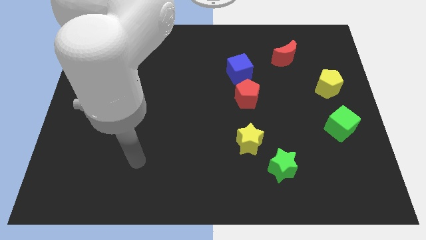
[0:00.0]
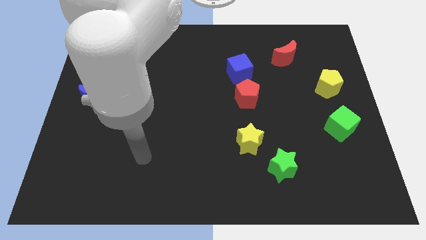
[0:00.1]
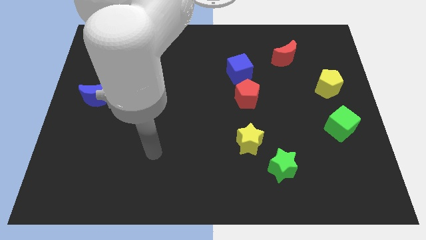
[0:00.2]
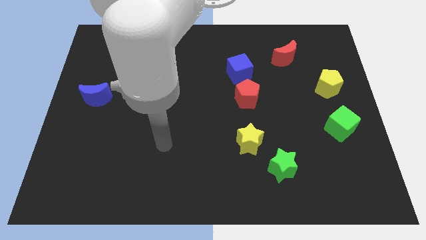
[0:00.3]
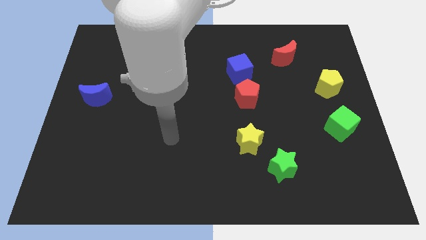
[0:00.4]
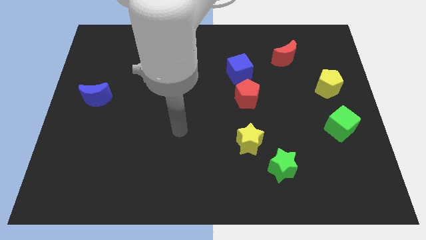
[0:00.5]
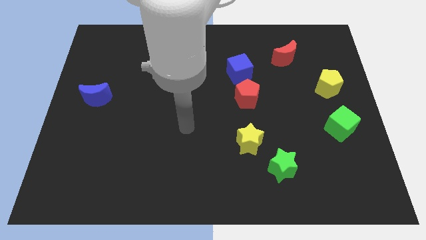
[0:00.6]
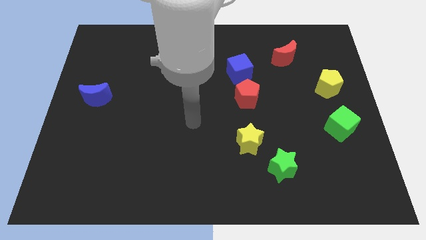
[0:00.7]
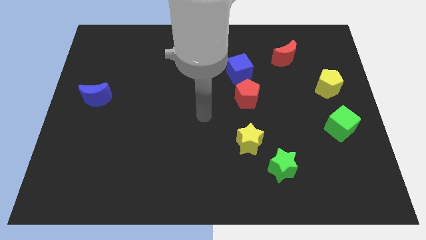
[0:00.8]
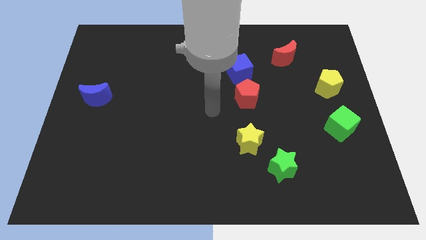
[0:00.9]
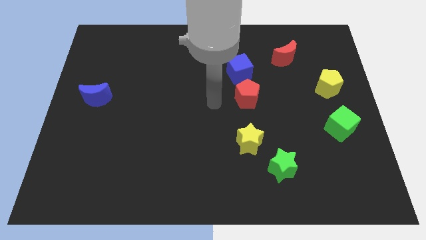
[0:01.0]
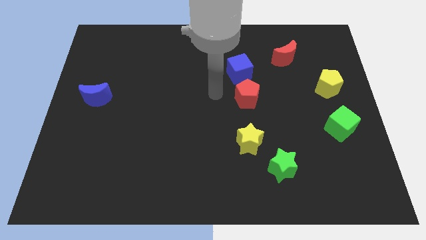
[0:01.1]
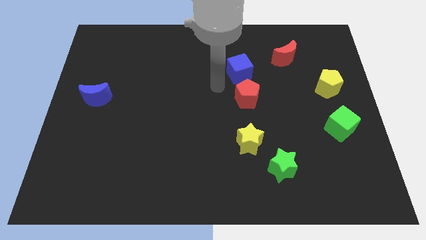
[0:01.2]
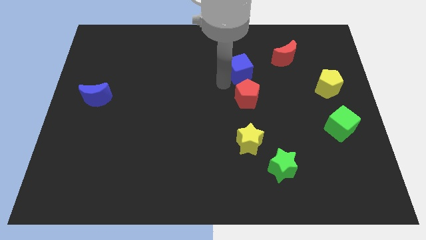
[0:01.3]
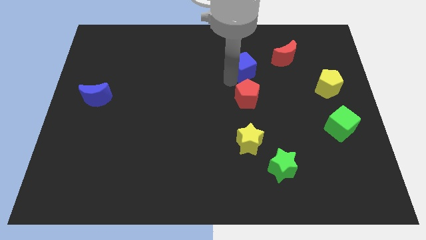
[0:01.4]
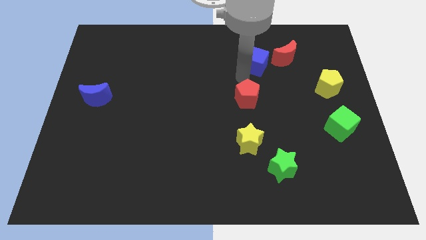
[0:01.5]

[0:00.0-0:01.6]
separate the red pentagon from the blue cube

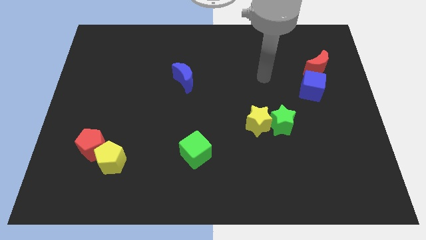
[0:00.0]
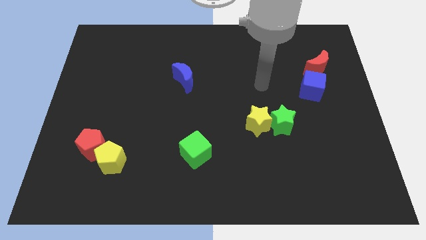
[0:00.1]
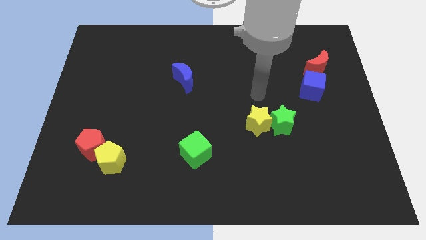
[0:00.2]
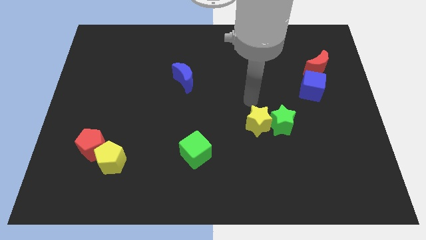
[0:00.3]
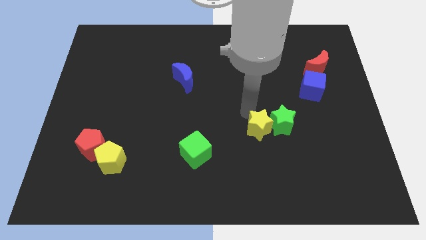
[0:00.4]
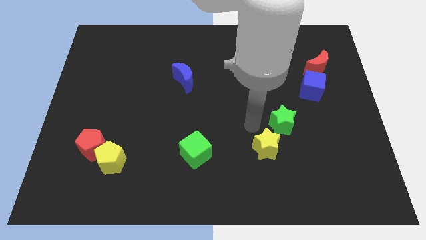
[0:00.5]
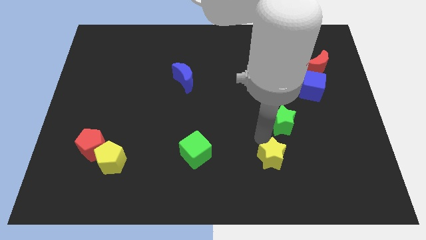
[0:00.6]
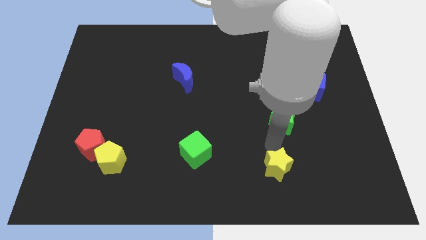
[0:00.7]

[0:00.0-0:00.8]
move the green star away from the yellow star

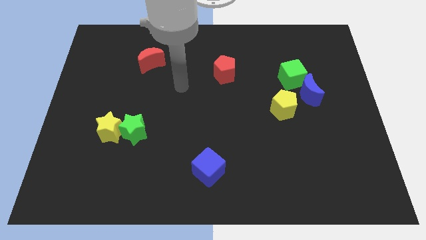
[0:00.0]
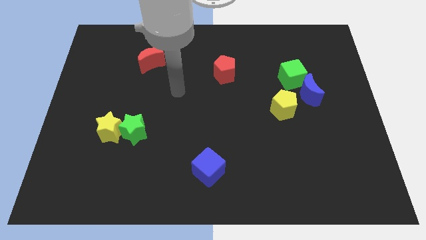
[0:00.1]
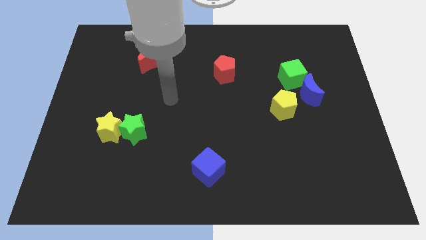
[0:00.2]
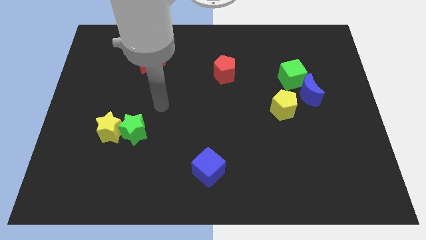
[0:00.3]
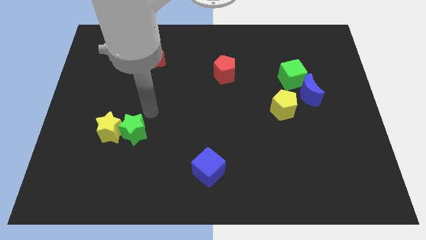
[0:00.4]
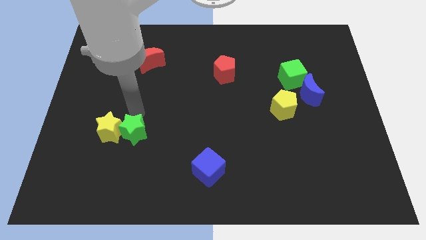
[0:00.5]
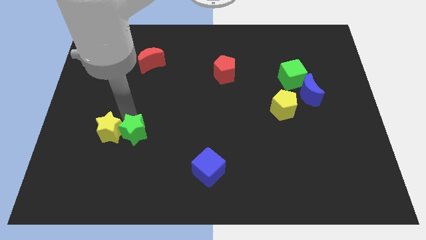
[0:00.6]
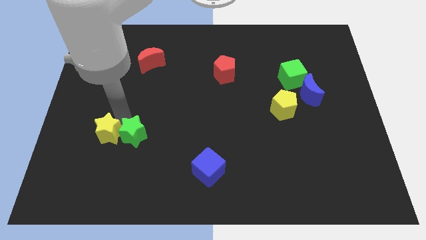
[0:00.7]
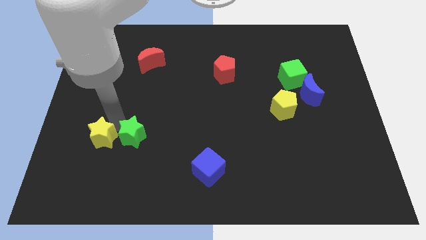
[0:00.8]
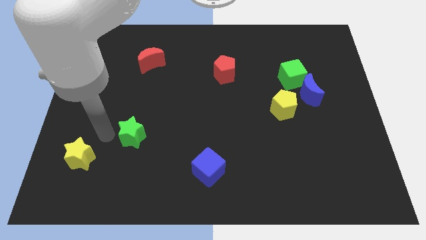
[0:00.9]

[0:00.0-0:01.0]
pull the green star apart from the yellow star

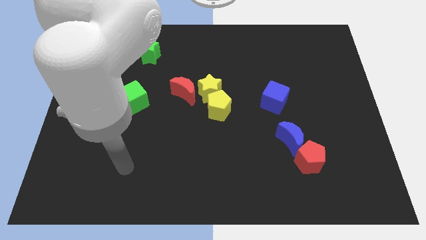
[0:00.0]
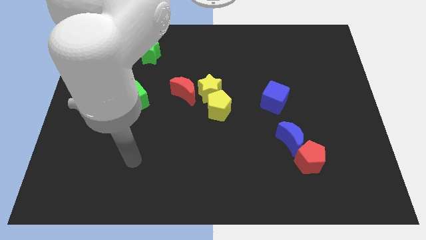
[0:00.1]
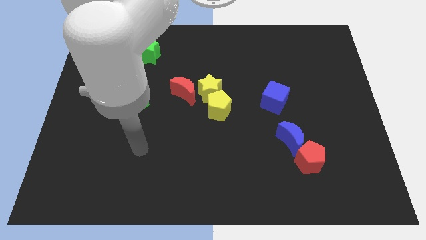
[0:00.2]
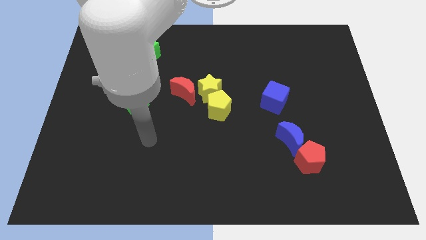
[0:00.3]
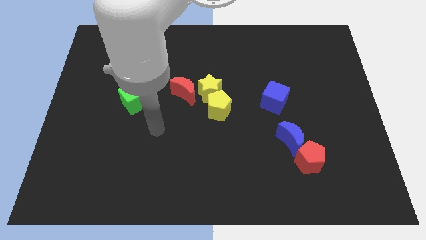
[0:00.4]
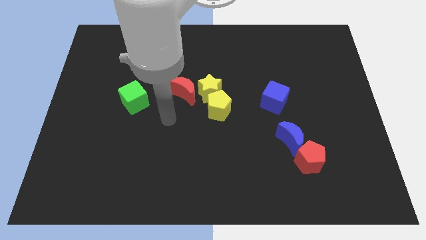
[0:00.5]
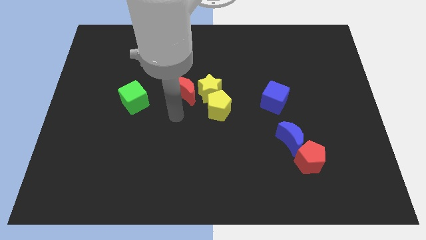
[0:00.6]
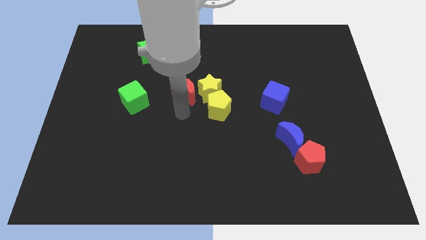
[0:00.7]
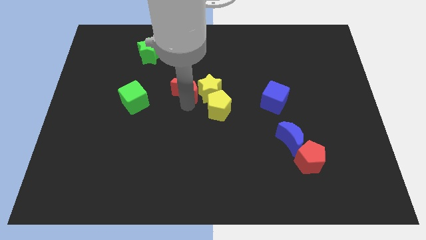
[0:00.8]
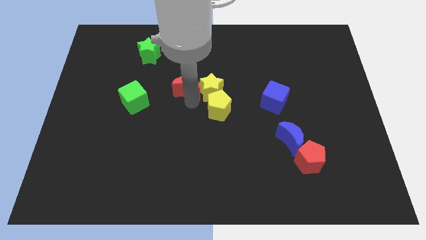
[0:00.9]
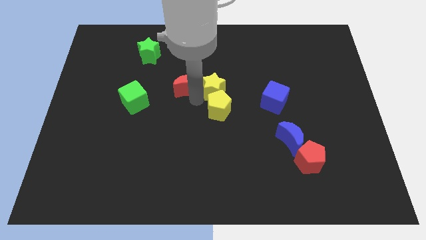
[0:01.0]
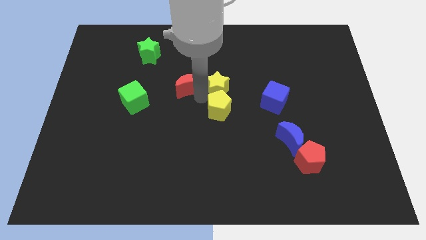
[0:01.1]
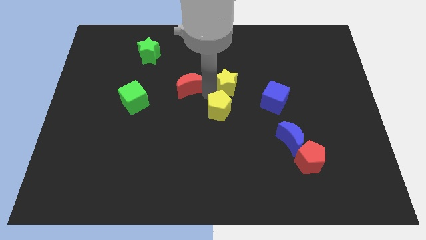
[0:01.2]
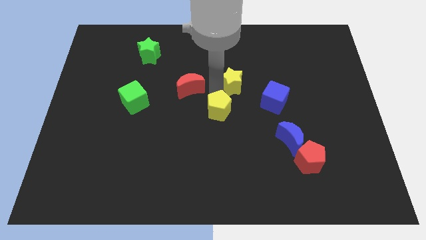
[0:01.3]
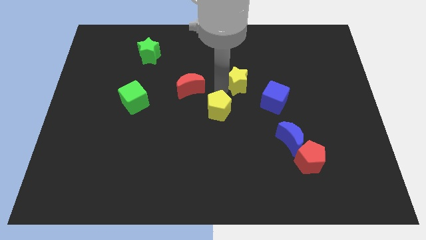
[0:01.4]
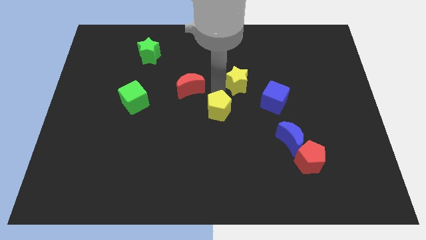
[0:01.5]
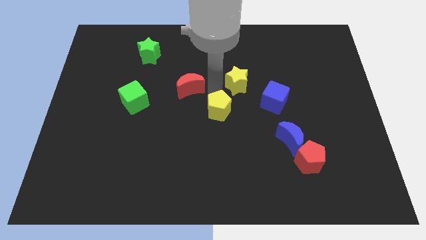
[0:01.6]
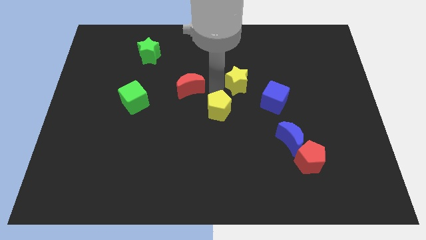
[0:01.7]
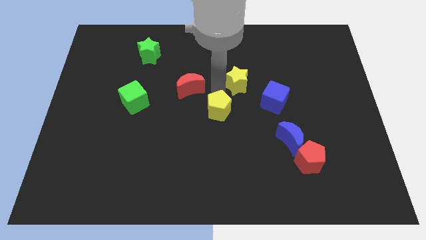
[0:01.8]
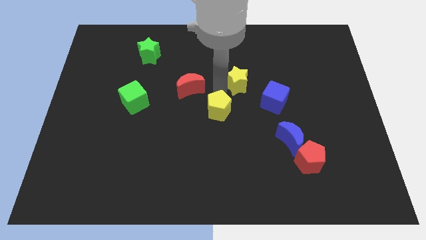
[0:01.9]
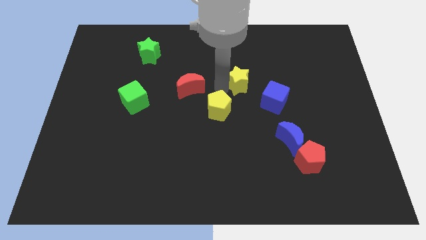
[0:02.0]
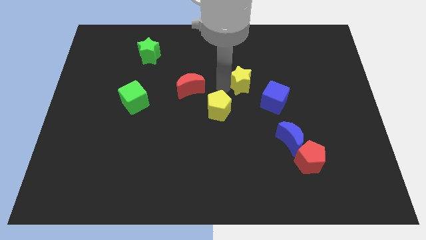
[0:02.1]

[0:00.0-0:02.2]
pull the yellow star apart from the yellow pentagon and red moon

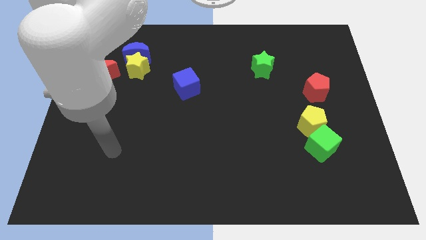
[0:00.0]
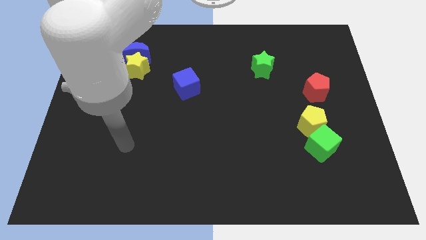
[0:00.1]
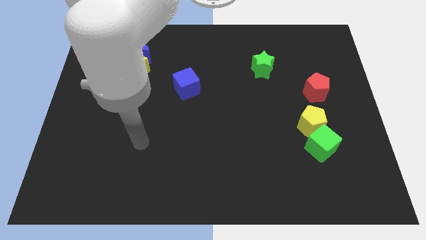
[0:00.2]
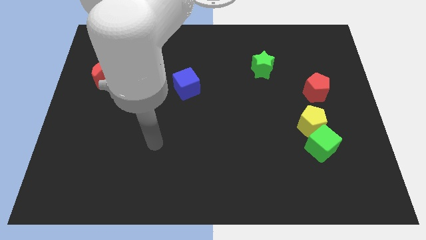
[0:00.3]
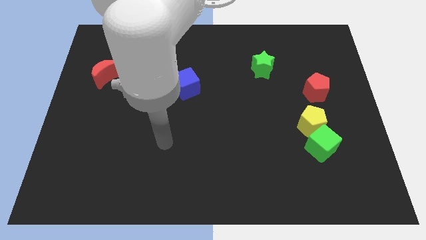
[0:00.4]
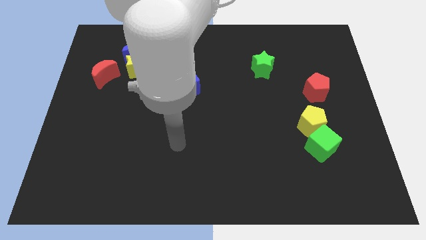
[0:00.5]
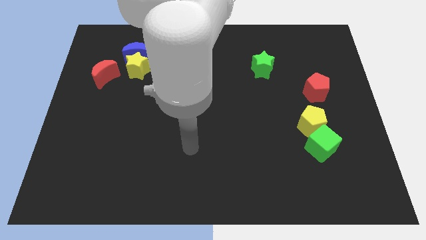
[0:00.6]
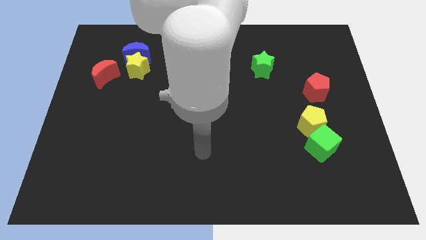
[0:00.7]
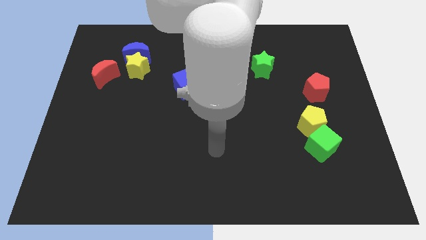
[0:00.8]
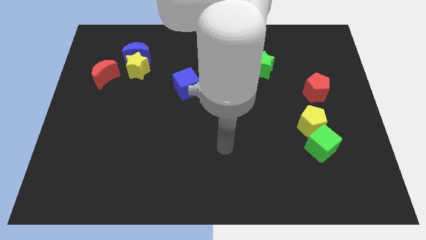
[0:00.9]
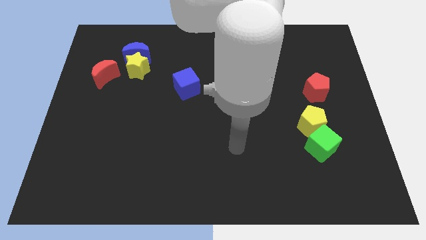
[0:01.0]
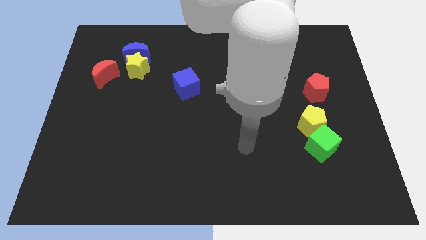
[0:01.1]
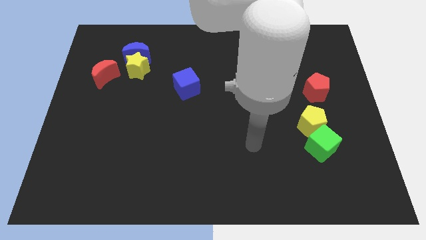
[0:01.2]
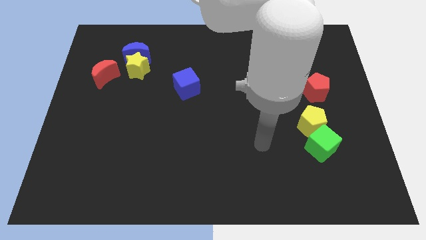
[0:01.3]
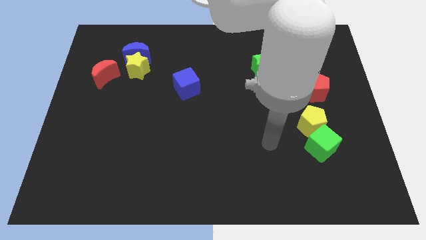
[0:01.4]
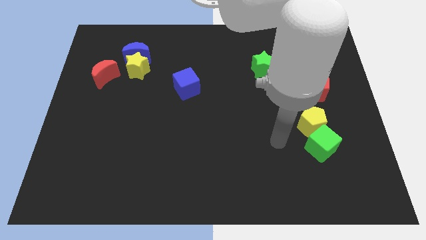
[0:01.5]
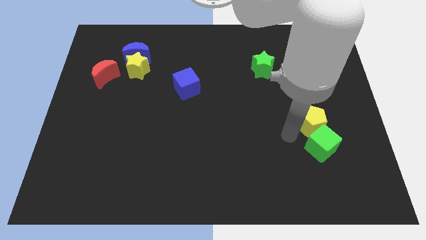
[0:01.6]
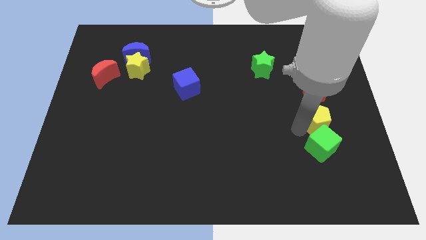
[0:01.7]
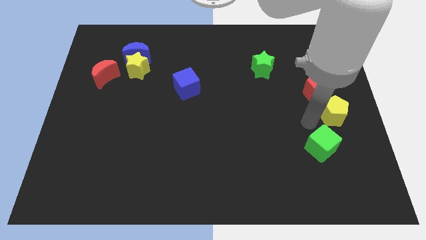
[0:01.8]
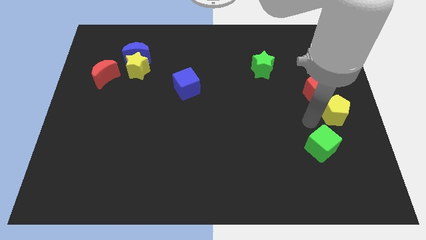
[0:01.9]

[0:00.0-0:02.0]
move the green cube away from the yellow pentagon

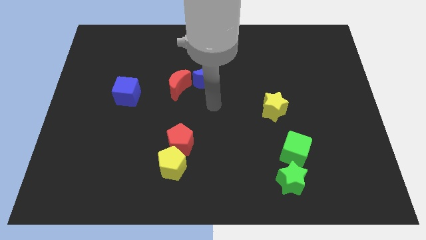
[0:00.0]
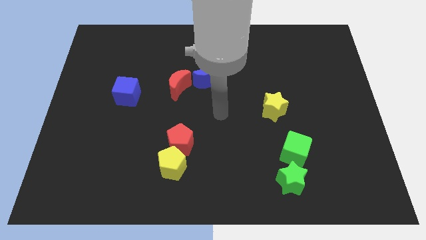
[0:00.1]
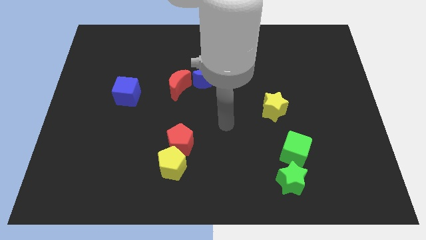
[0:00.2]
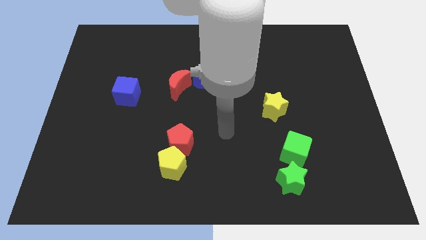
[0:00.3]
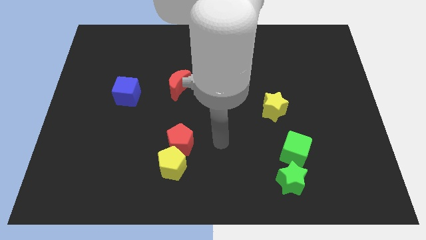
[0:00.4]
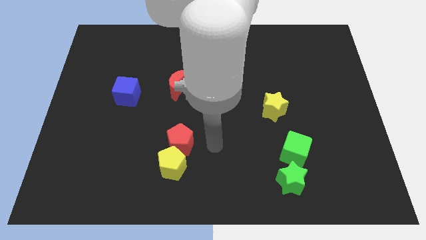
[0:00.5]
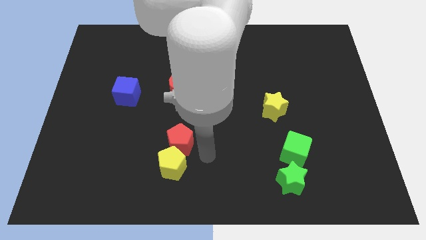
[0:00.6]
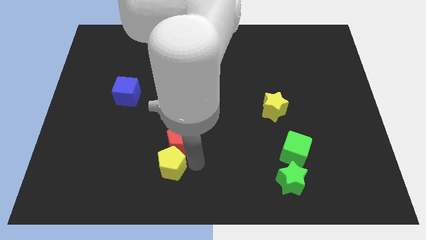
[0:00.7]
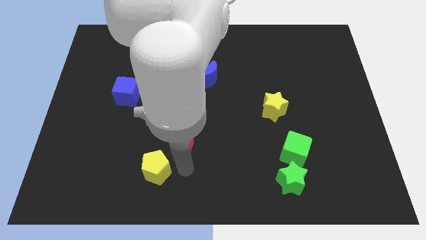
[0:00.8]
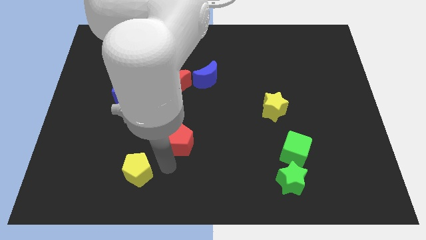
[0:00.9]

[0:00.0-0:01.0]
separate the red pentagon from the yellow pentagon

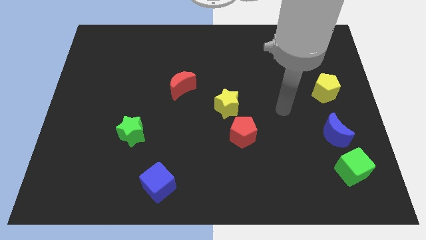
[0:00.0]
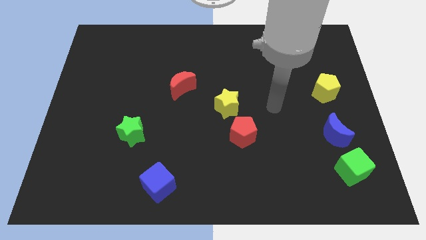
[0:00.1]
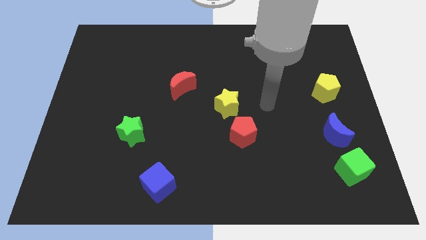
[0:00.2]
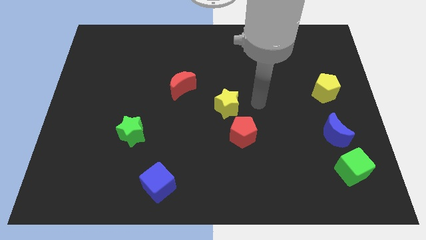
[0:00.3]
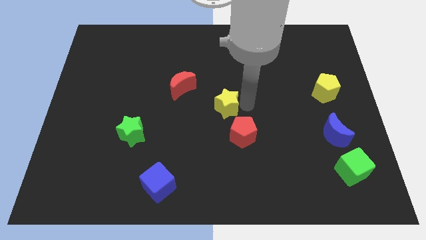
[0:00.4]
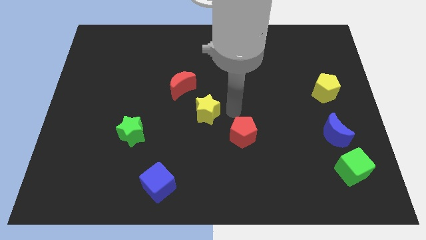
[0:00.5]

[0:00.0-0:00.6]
pull the red pentagon apart from the yellow star
